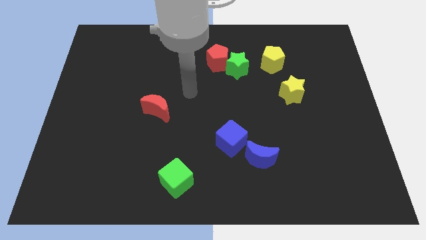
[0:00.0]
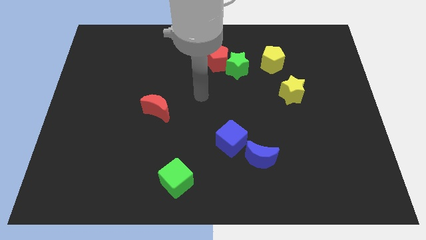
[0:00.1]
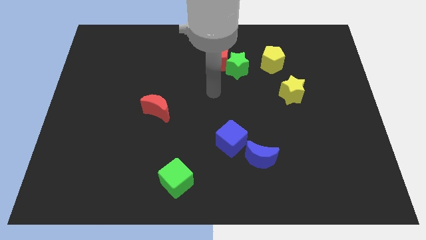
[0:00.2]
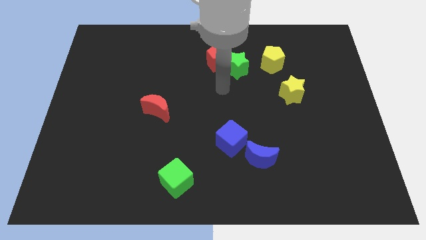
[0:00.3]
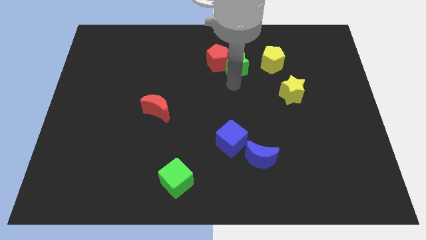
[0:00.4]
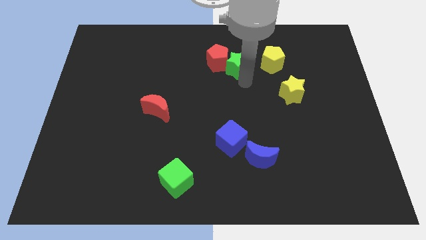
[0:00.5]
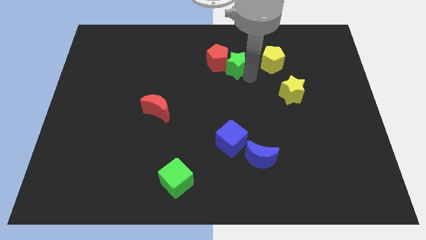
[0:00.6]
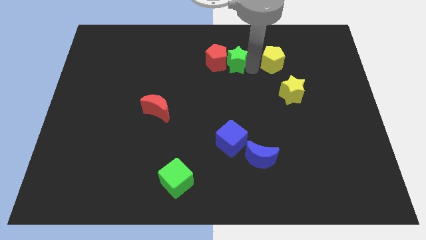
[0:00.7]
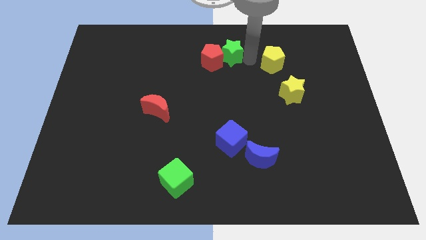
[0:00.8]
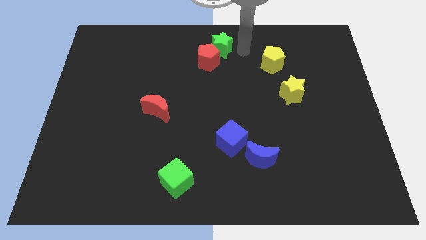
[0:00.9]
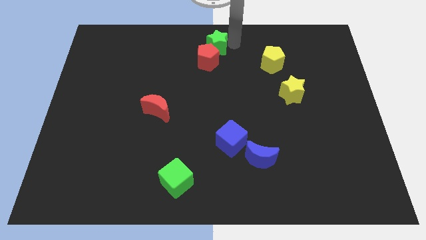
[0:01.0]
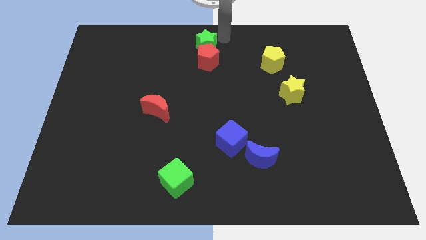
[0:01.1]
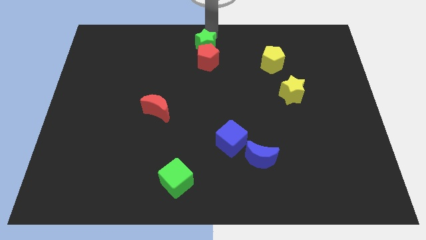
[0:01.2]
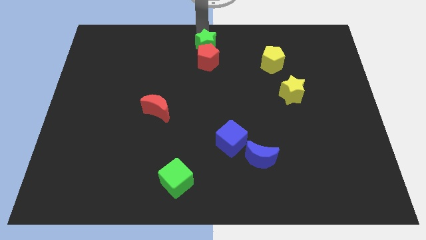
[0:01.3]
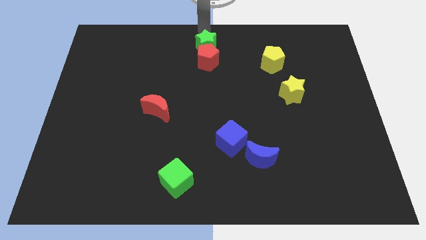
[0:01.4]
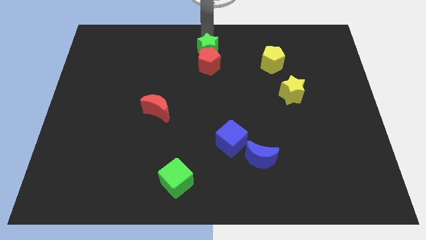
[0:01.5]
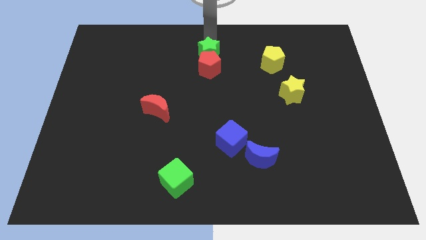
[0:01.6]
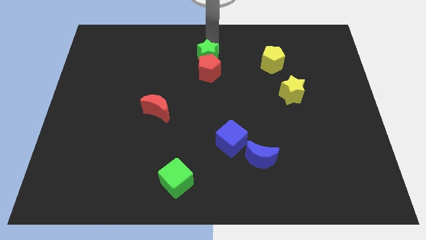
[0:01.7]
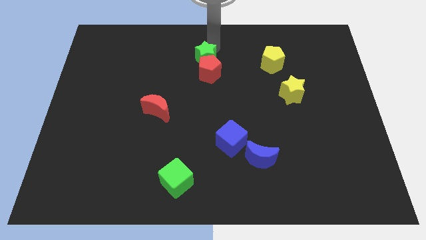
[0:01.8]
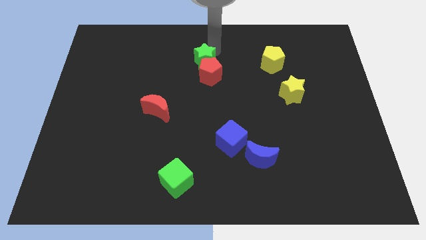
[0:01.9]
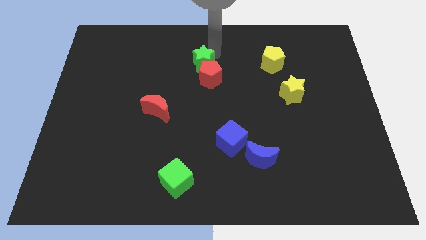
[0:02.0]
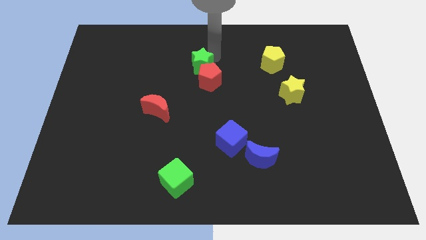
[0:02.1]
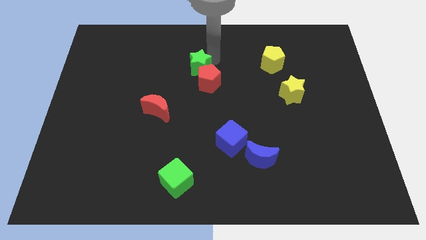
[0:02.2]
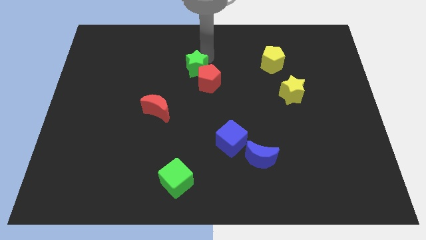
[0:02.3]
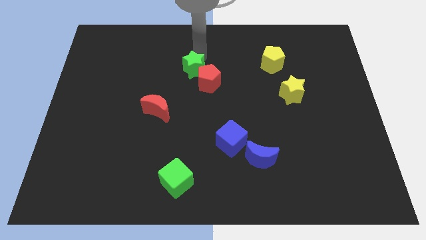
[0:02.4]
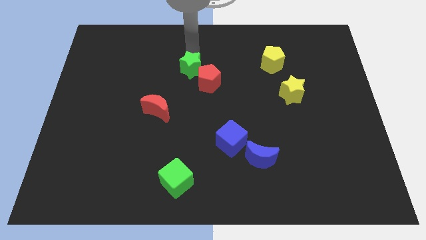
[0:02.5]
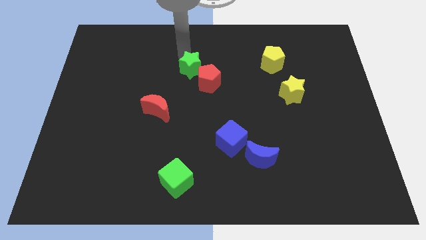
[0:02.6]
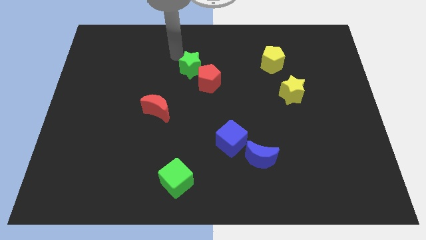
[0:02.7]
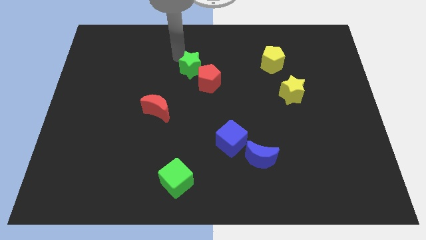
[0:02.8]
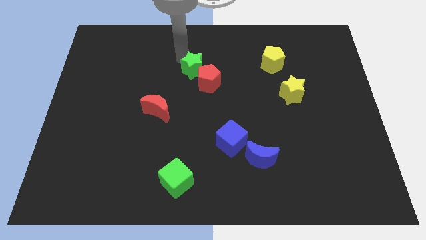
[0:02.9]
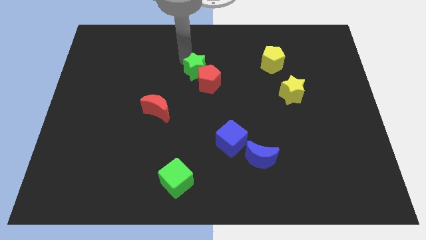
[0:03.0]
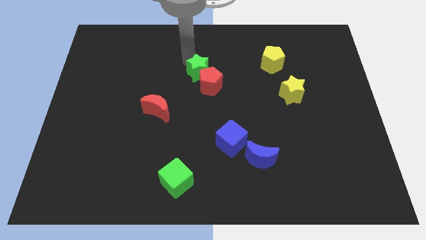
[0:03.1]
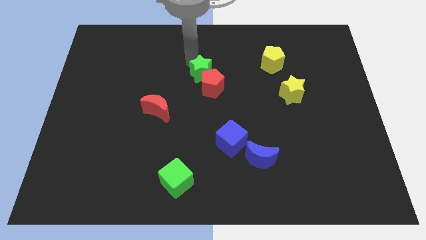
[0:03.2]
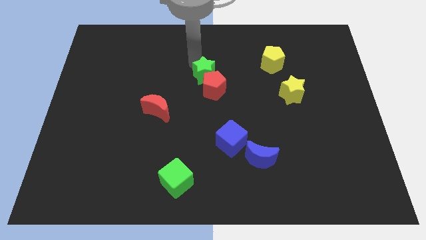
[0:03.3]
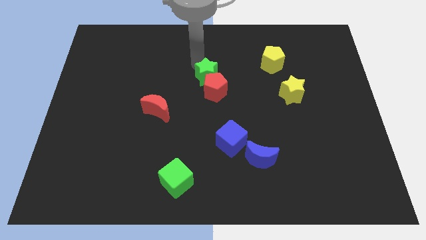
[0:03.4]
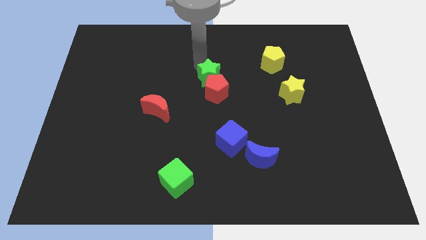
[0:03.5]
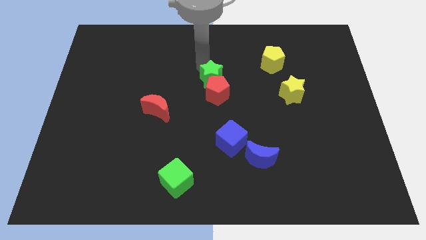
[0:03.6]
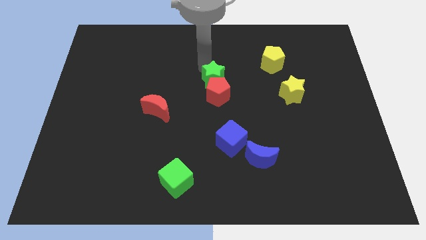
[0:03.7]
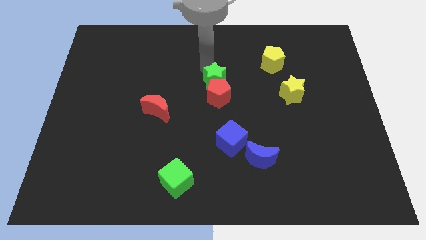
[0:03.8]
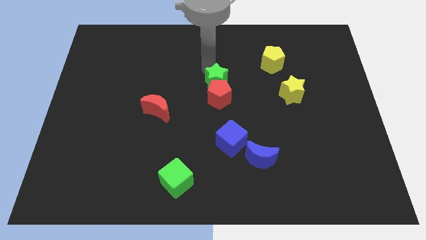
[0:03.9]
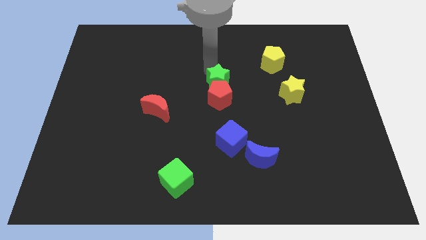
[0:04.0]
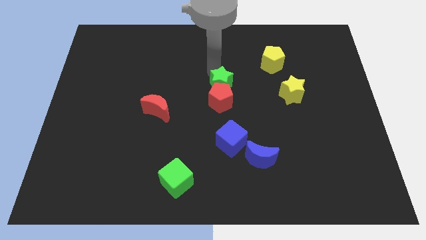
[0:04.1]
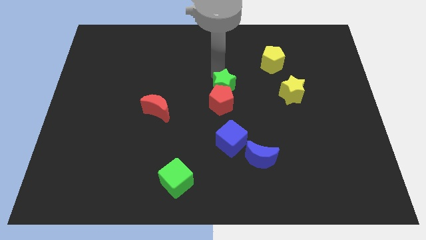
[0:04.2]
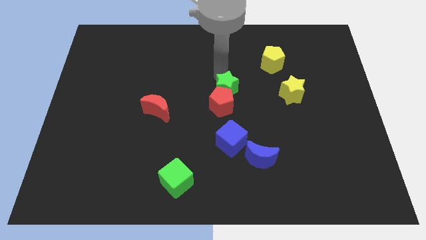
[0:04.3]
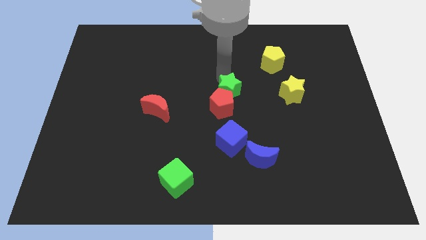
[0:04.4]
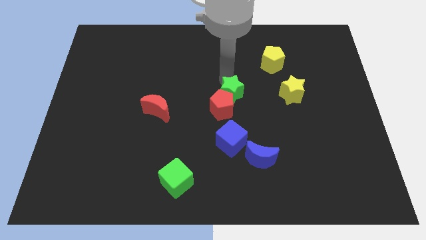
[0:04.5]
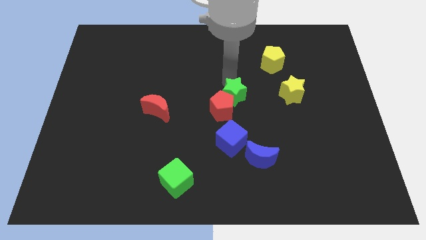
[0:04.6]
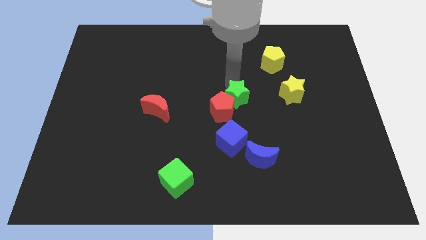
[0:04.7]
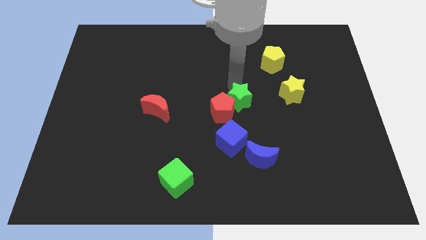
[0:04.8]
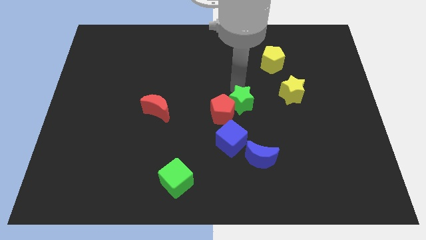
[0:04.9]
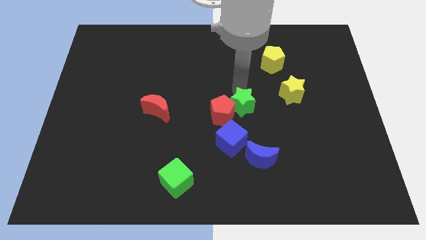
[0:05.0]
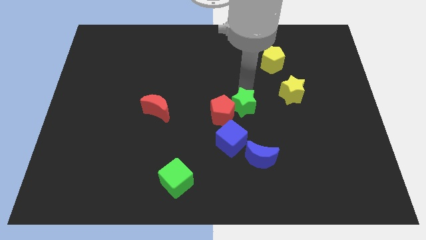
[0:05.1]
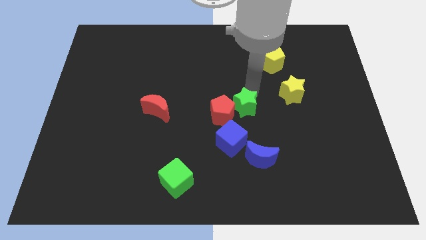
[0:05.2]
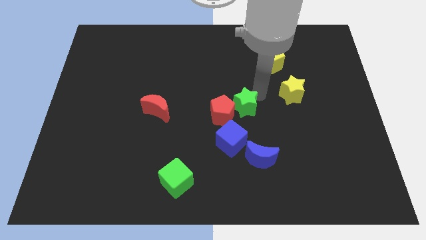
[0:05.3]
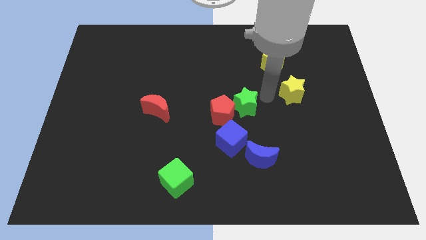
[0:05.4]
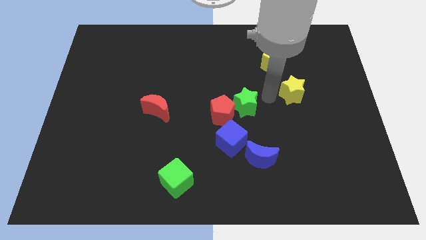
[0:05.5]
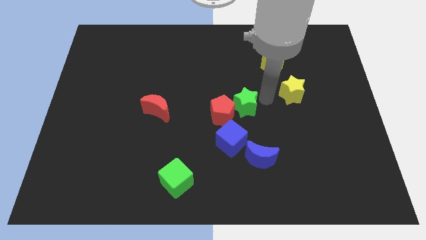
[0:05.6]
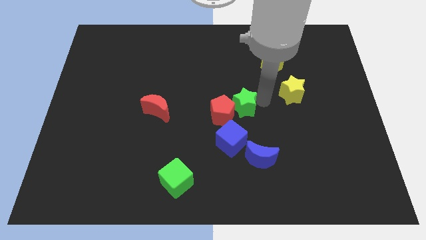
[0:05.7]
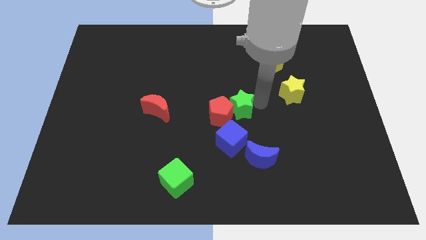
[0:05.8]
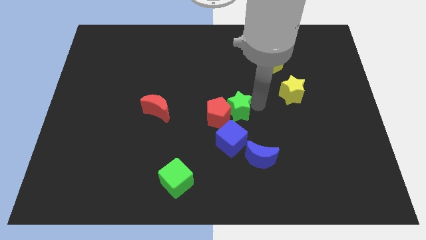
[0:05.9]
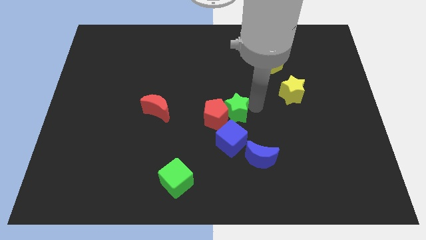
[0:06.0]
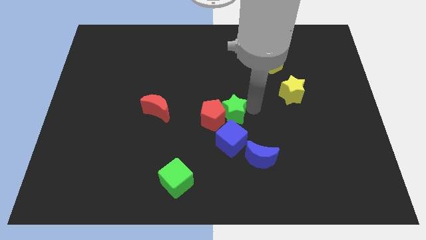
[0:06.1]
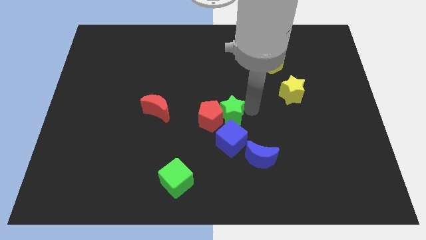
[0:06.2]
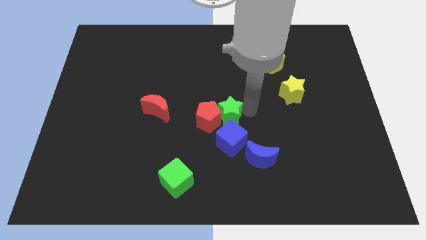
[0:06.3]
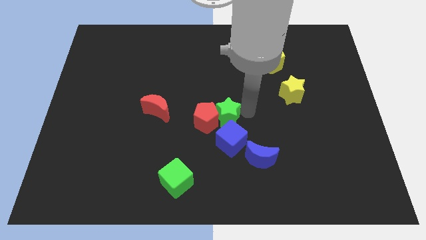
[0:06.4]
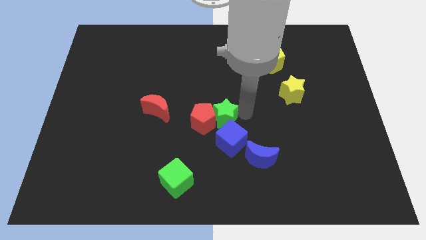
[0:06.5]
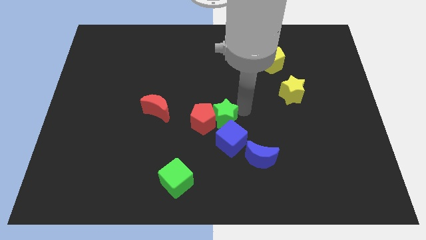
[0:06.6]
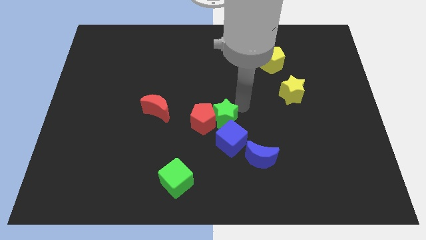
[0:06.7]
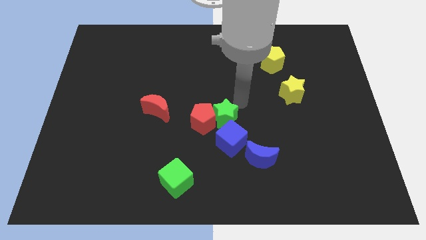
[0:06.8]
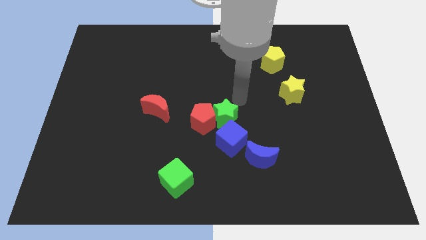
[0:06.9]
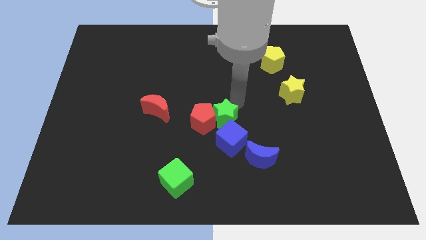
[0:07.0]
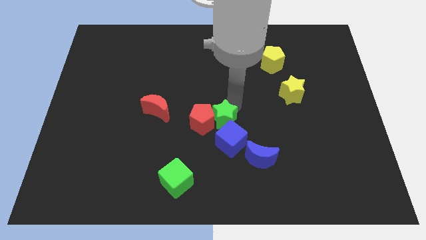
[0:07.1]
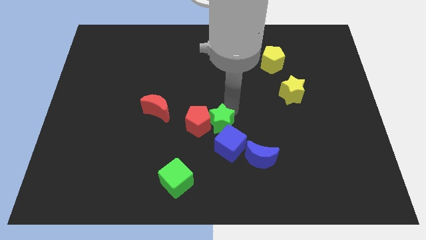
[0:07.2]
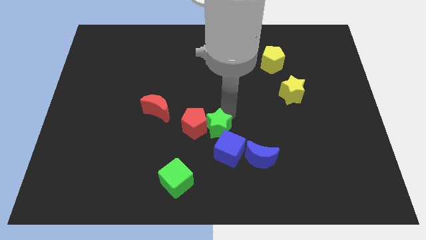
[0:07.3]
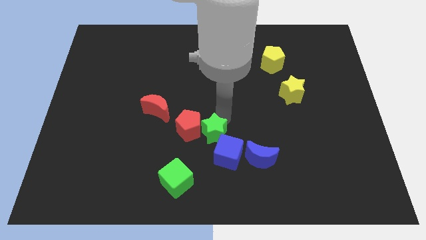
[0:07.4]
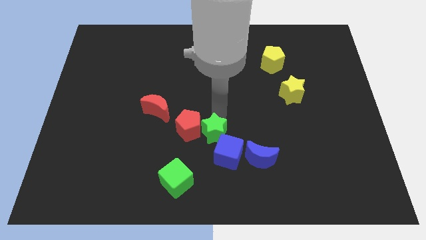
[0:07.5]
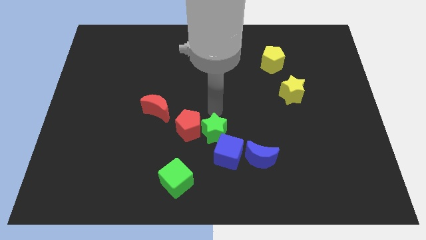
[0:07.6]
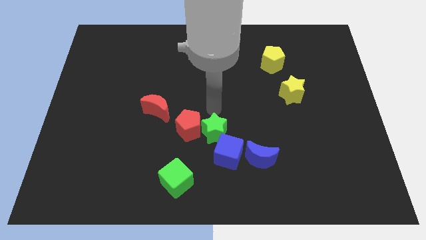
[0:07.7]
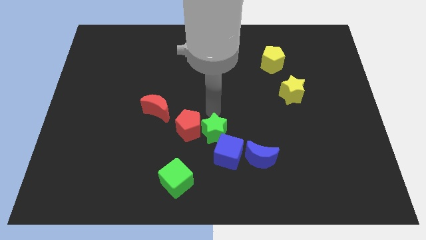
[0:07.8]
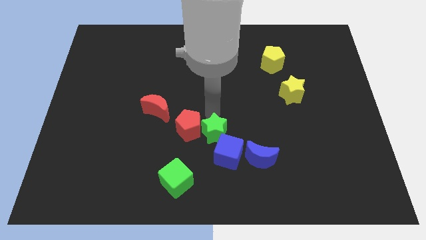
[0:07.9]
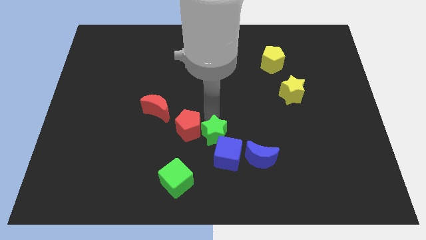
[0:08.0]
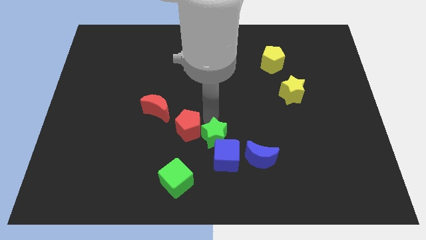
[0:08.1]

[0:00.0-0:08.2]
push the green star downwards
